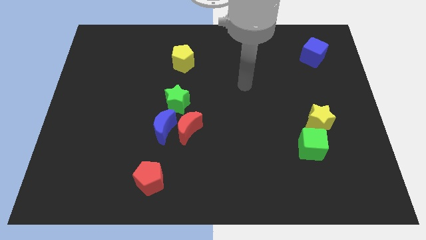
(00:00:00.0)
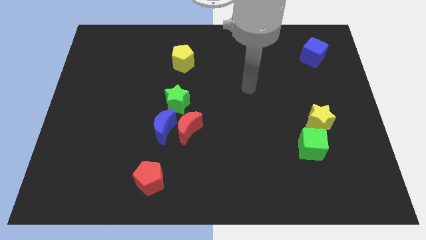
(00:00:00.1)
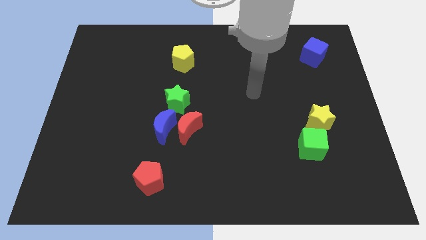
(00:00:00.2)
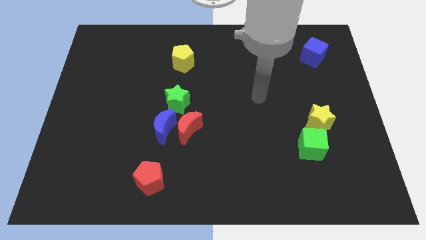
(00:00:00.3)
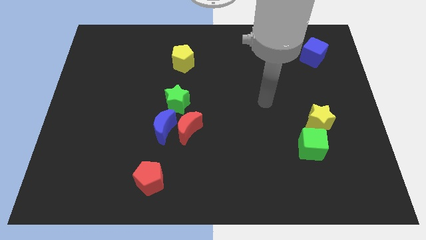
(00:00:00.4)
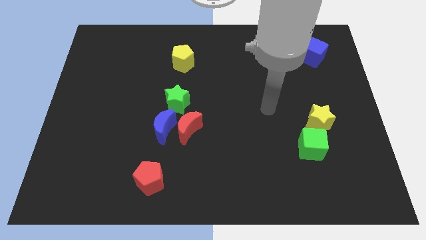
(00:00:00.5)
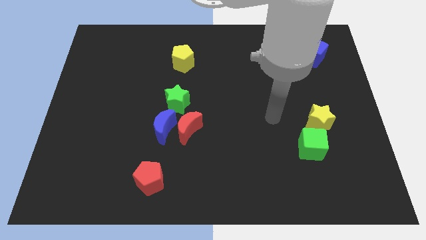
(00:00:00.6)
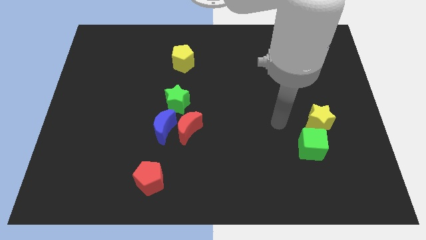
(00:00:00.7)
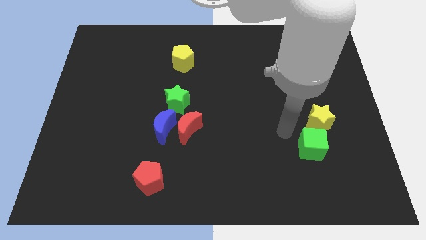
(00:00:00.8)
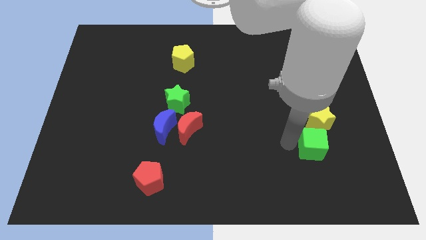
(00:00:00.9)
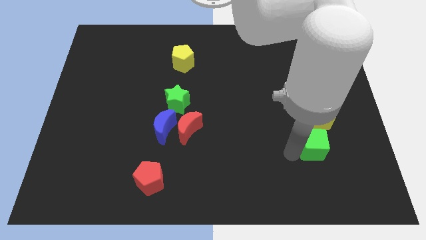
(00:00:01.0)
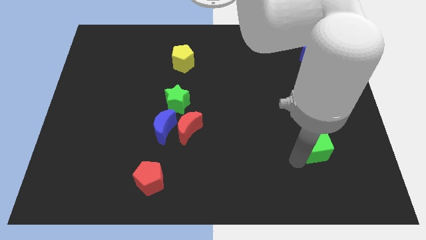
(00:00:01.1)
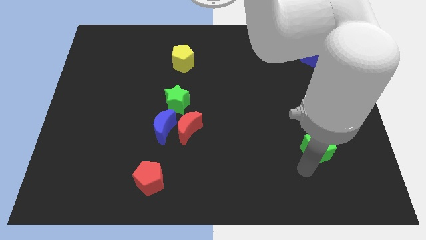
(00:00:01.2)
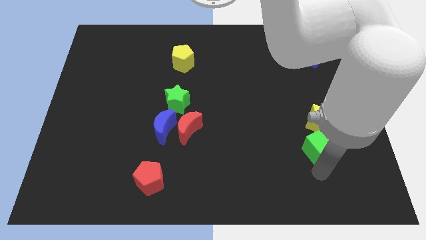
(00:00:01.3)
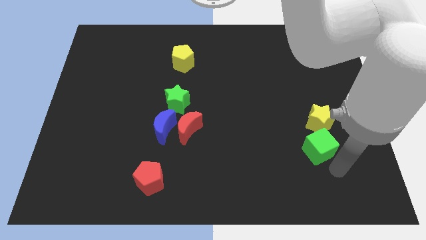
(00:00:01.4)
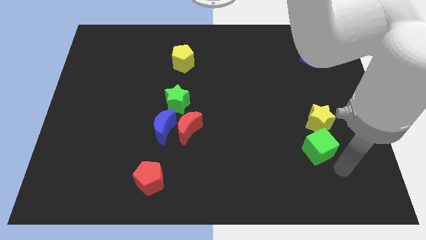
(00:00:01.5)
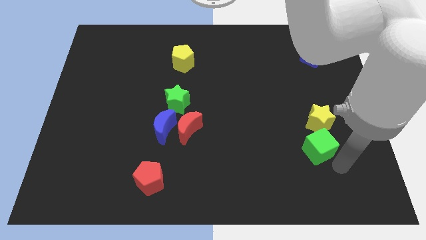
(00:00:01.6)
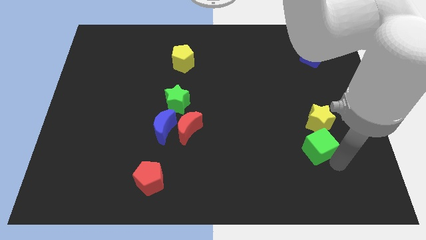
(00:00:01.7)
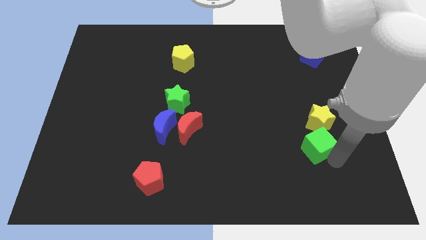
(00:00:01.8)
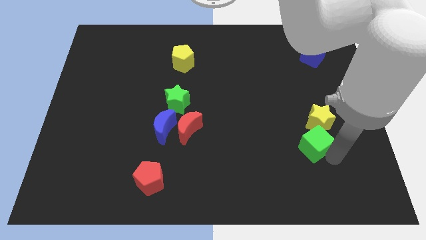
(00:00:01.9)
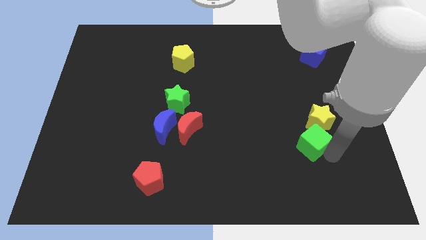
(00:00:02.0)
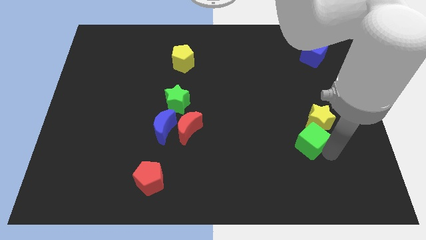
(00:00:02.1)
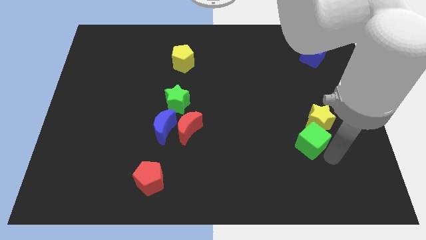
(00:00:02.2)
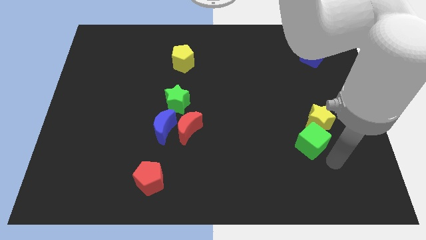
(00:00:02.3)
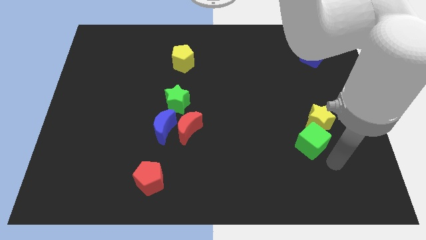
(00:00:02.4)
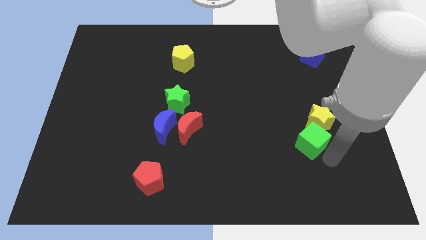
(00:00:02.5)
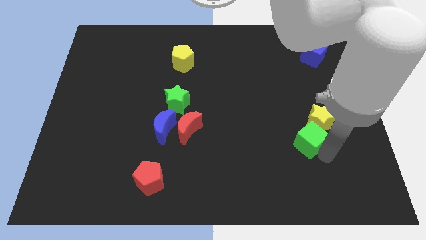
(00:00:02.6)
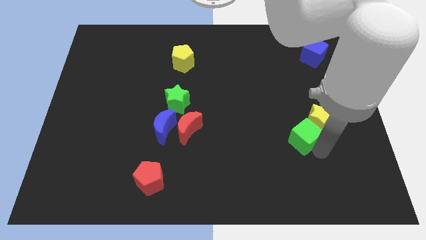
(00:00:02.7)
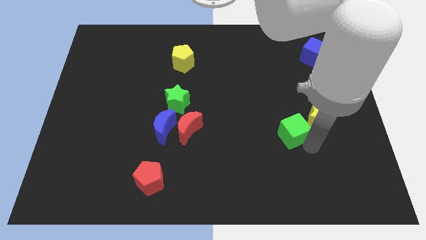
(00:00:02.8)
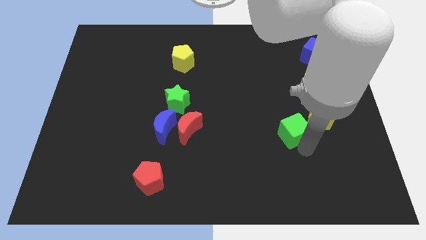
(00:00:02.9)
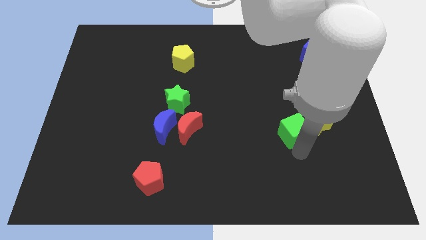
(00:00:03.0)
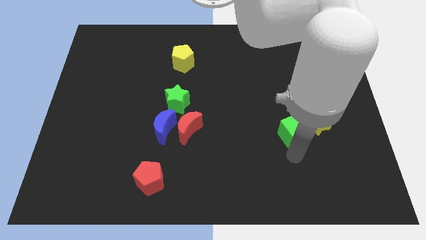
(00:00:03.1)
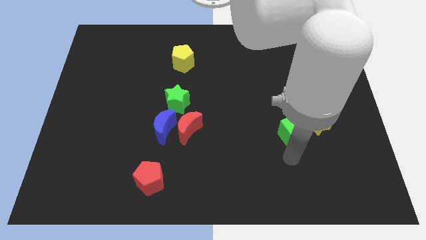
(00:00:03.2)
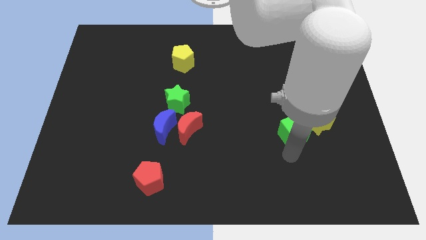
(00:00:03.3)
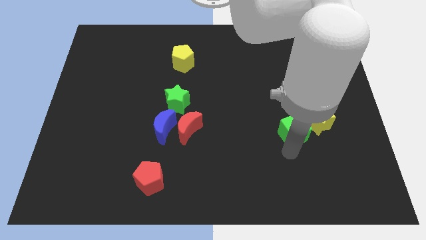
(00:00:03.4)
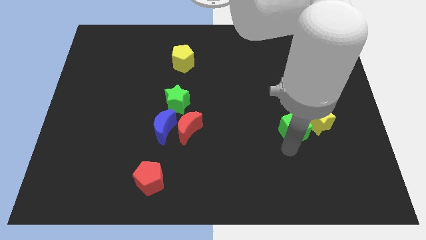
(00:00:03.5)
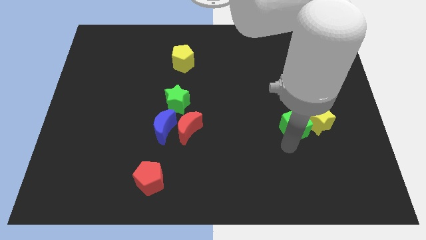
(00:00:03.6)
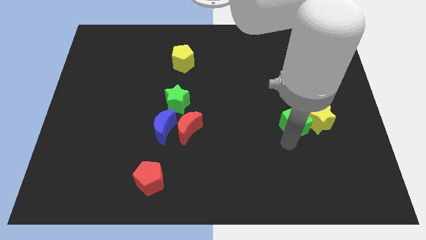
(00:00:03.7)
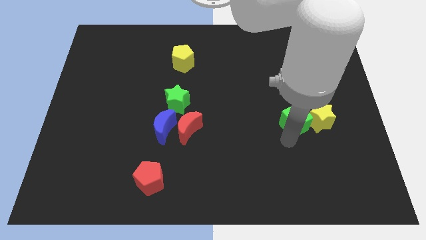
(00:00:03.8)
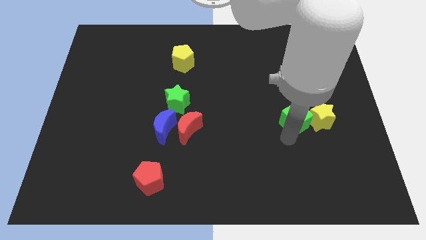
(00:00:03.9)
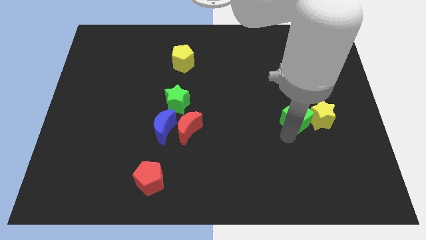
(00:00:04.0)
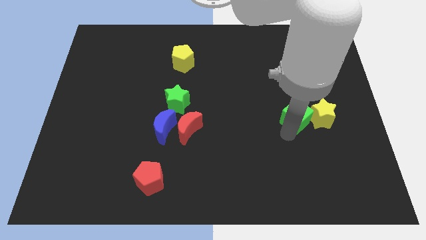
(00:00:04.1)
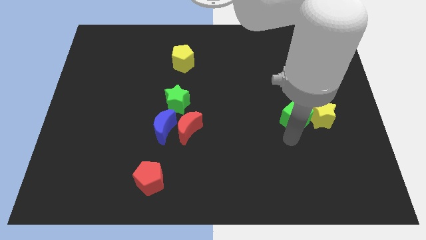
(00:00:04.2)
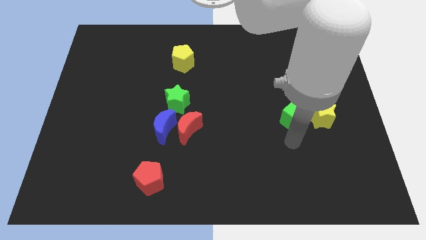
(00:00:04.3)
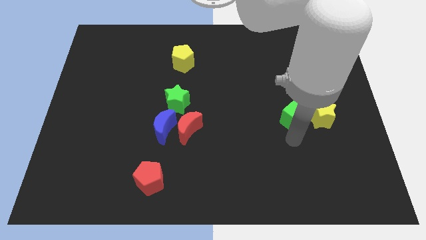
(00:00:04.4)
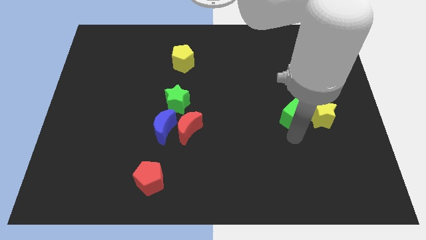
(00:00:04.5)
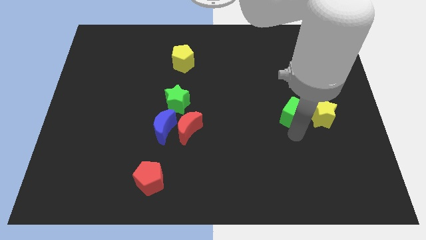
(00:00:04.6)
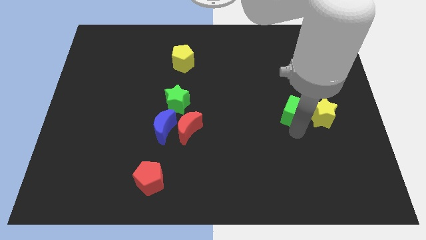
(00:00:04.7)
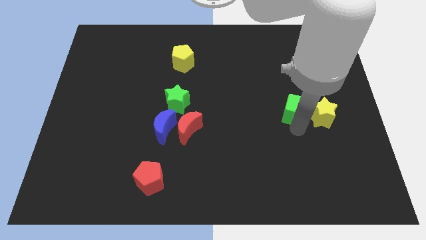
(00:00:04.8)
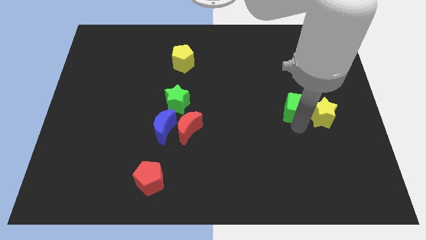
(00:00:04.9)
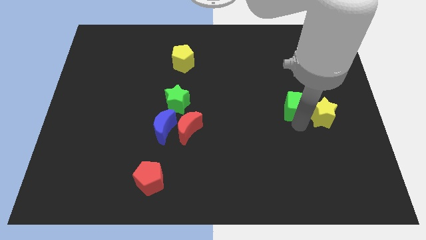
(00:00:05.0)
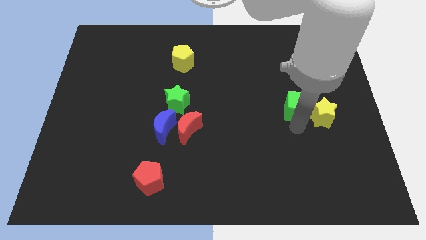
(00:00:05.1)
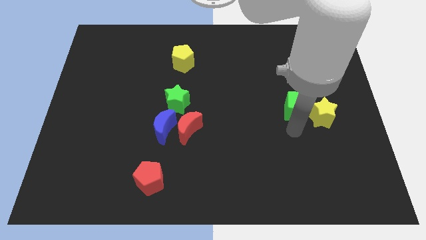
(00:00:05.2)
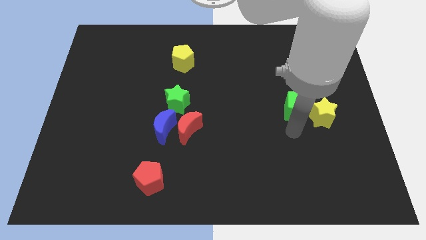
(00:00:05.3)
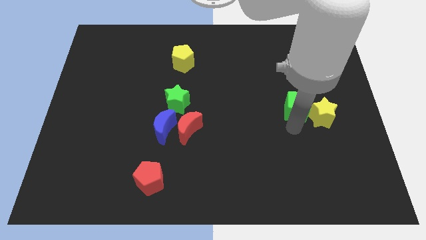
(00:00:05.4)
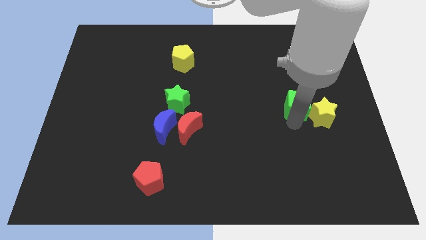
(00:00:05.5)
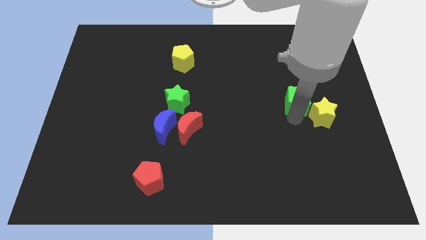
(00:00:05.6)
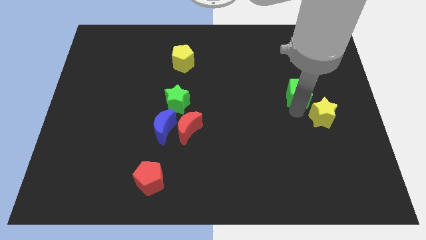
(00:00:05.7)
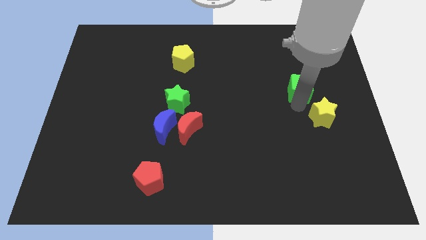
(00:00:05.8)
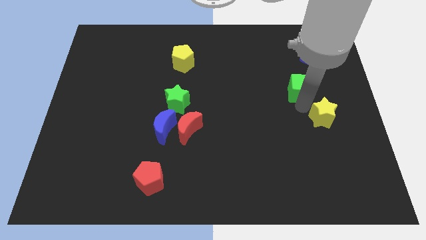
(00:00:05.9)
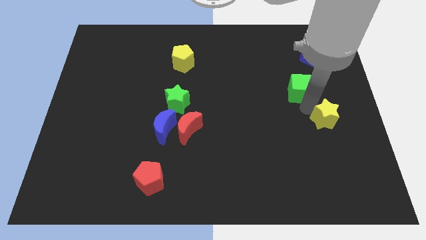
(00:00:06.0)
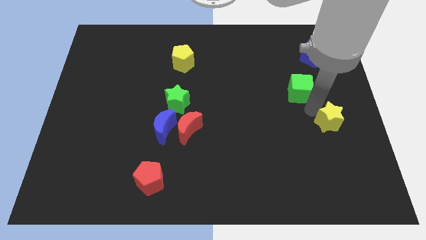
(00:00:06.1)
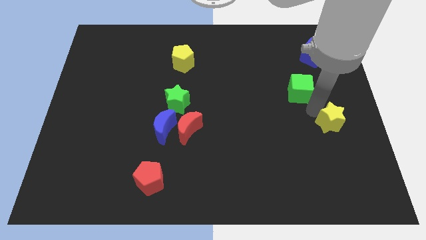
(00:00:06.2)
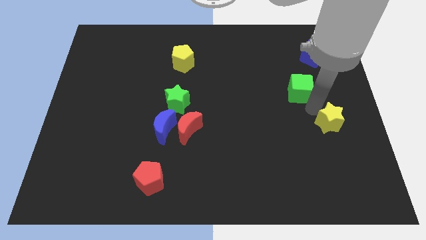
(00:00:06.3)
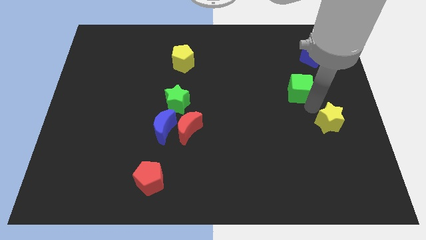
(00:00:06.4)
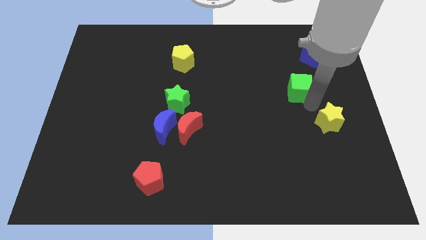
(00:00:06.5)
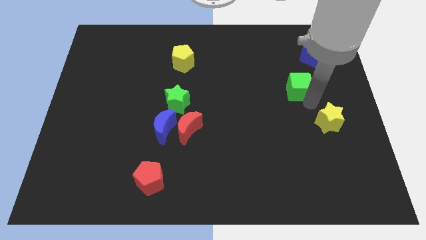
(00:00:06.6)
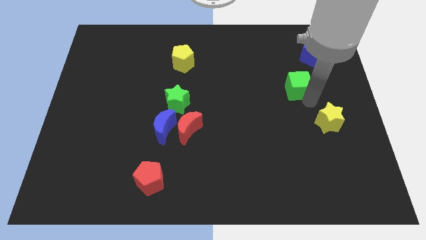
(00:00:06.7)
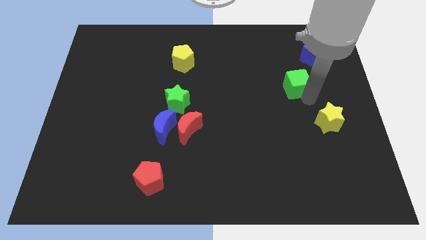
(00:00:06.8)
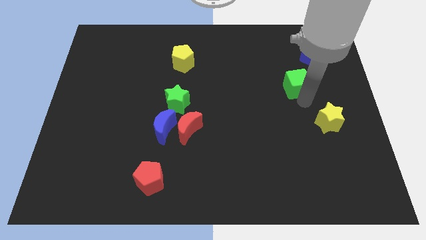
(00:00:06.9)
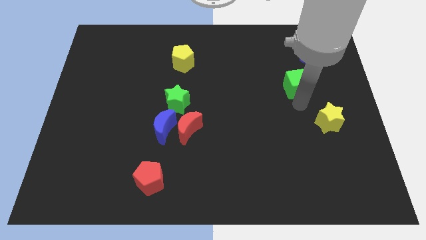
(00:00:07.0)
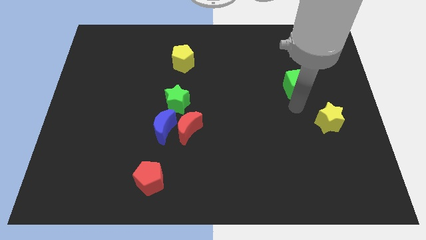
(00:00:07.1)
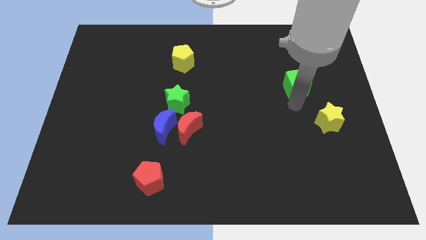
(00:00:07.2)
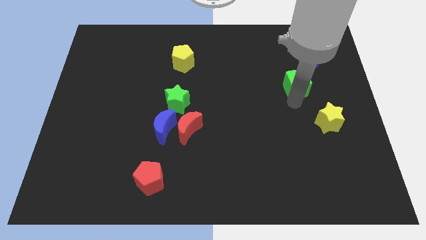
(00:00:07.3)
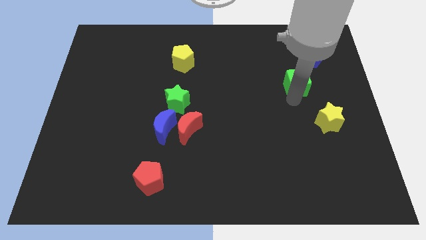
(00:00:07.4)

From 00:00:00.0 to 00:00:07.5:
put the green cube to the bottom left of the blue cube

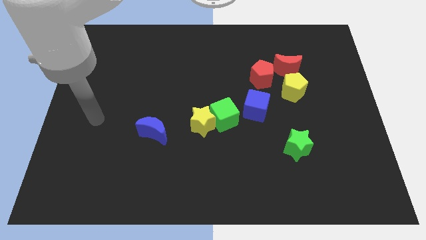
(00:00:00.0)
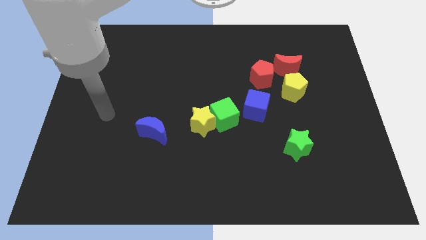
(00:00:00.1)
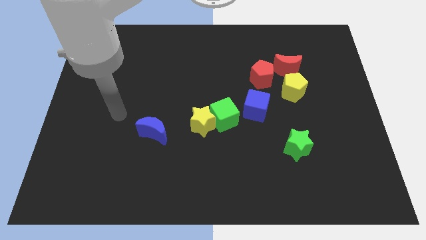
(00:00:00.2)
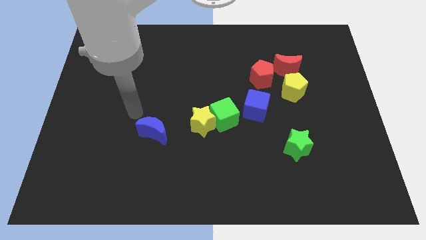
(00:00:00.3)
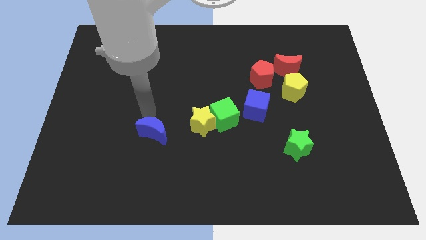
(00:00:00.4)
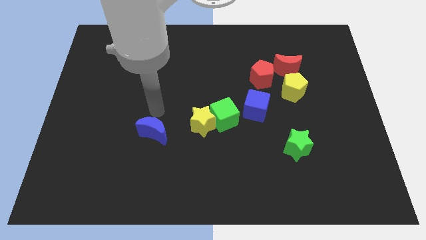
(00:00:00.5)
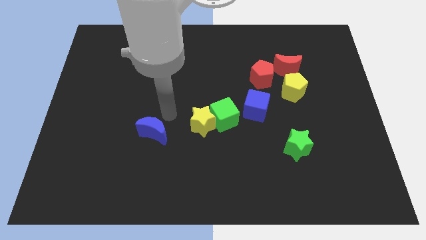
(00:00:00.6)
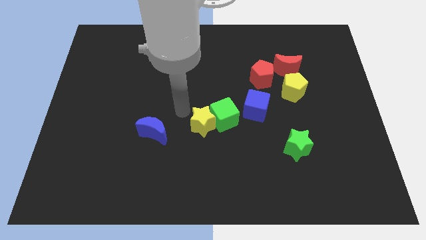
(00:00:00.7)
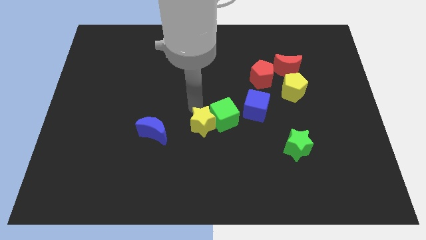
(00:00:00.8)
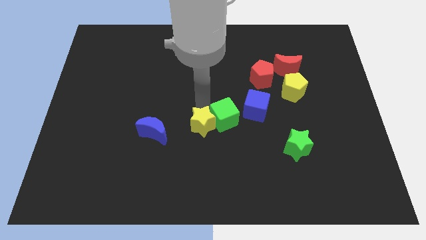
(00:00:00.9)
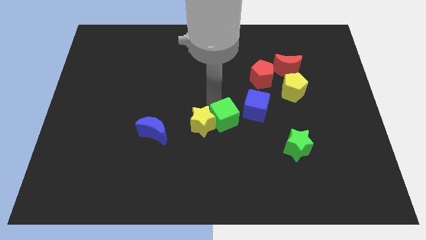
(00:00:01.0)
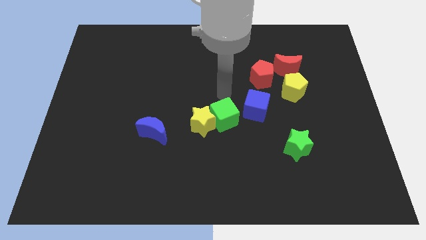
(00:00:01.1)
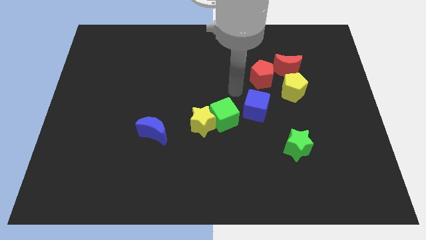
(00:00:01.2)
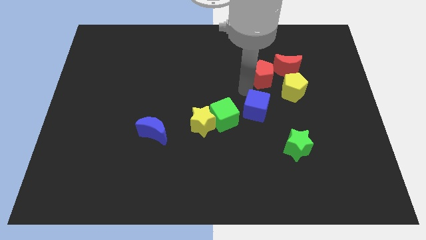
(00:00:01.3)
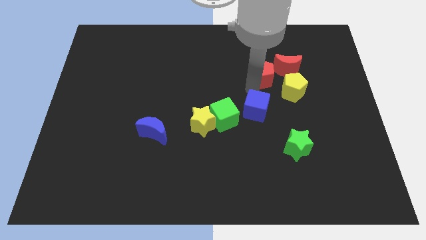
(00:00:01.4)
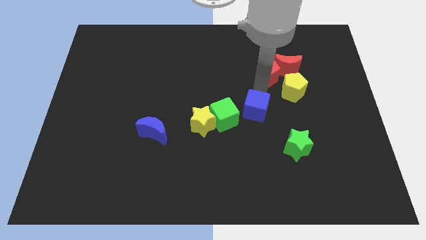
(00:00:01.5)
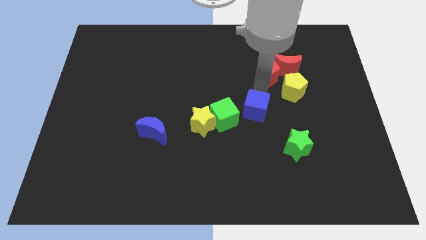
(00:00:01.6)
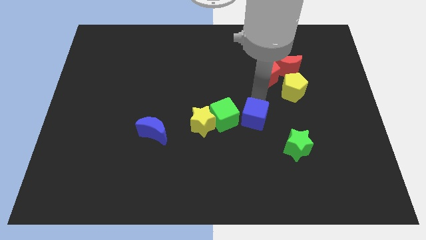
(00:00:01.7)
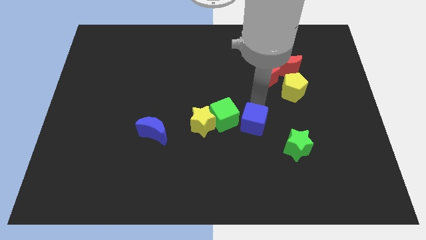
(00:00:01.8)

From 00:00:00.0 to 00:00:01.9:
push the blue cube to the bottom right of the green cube
